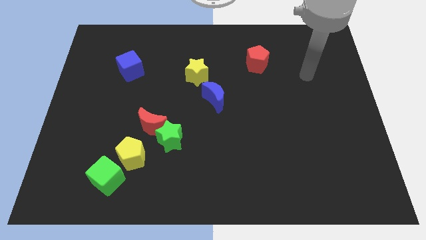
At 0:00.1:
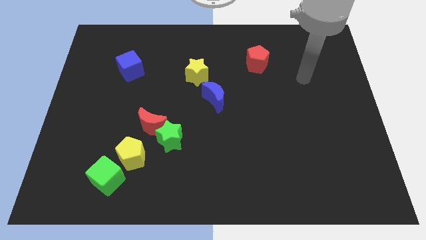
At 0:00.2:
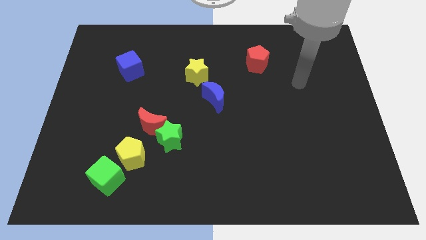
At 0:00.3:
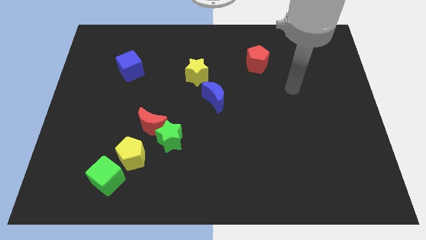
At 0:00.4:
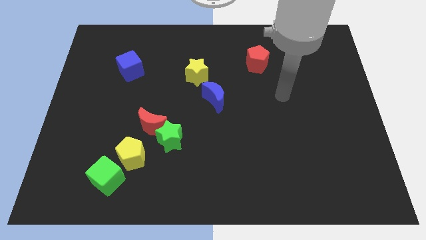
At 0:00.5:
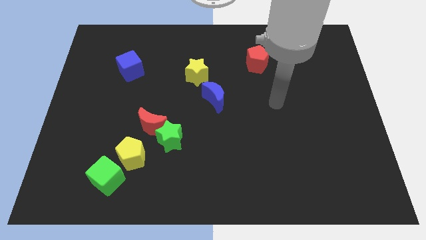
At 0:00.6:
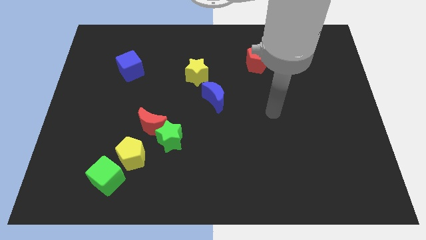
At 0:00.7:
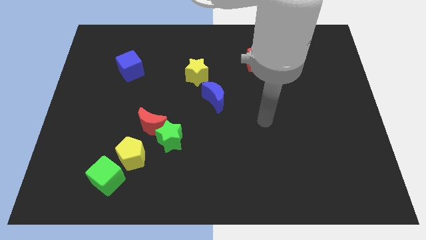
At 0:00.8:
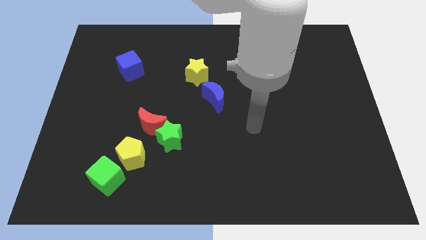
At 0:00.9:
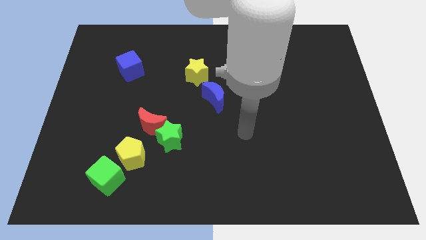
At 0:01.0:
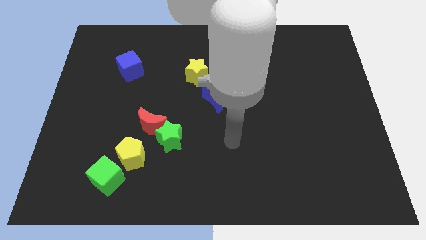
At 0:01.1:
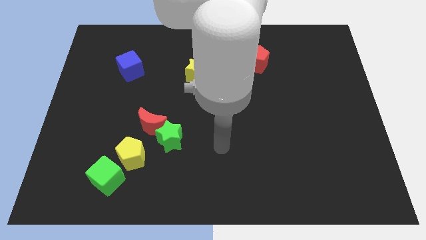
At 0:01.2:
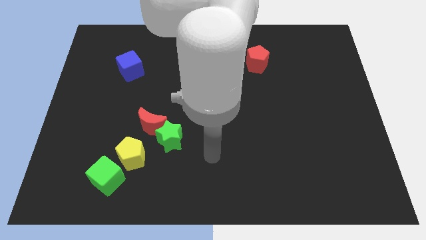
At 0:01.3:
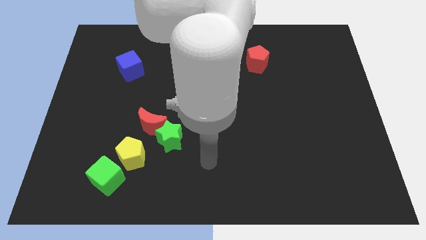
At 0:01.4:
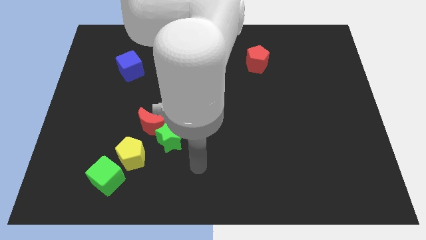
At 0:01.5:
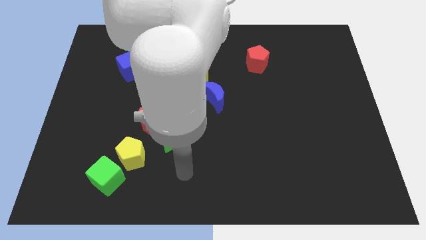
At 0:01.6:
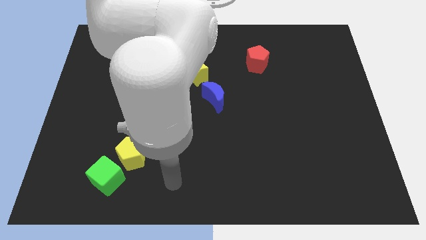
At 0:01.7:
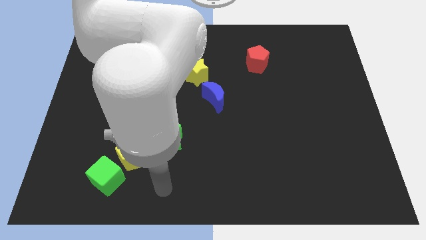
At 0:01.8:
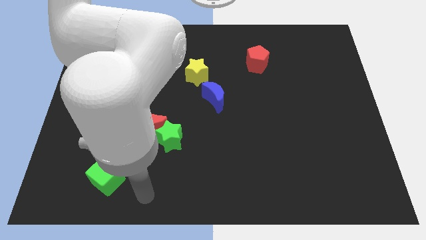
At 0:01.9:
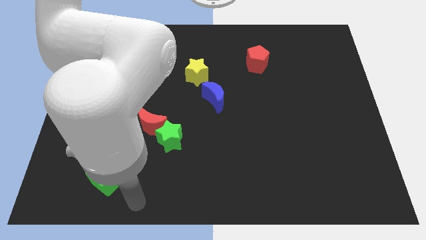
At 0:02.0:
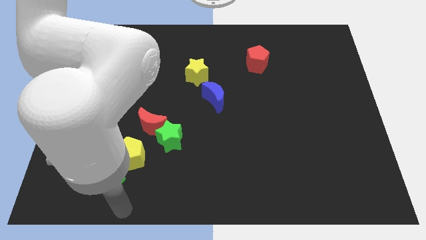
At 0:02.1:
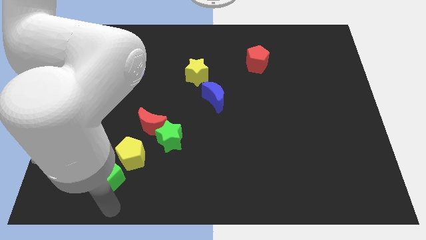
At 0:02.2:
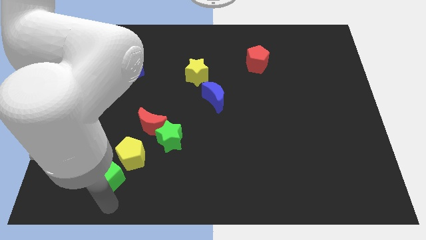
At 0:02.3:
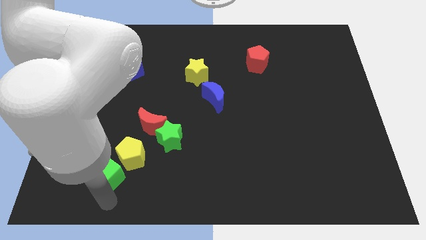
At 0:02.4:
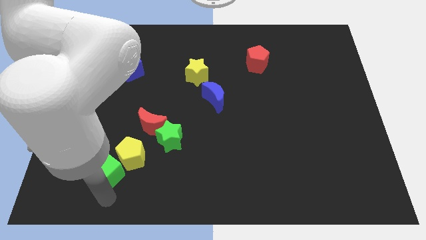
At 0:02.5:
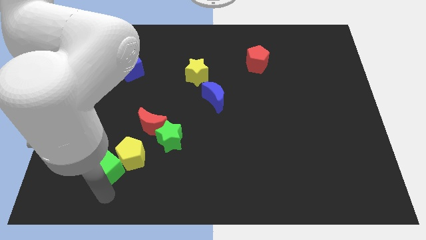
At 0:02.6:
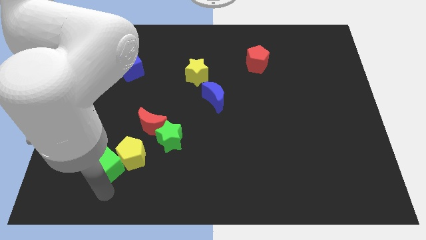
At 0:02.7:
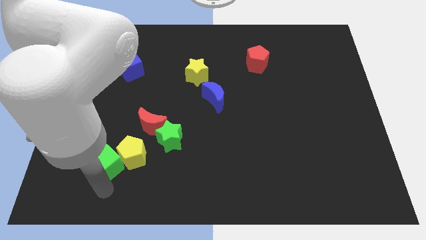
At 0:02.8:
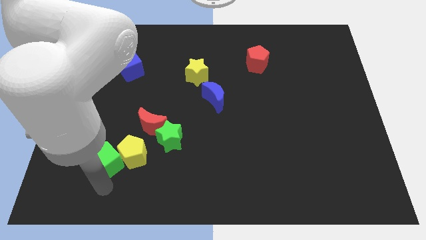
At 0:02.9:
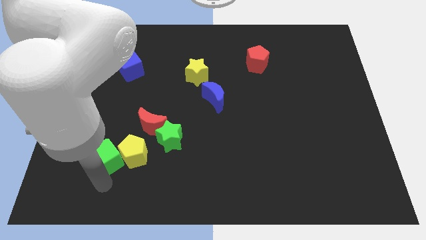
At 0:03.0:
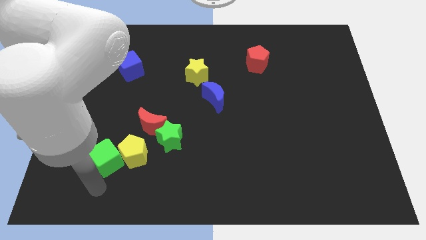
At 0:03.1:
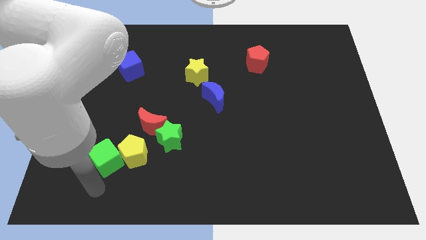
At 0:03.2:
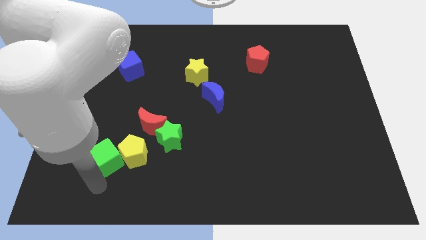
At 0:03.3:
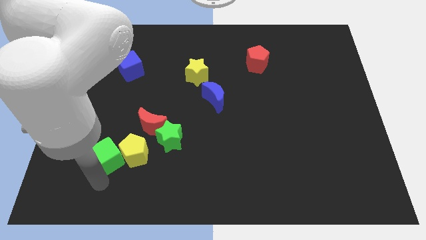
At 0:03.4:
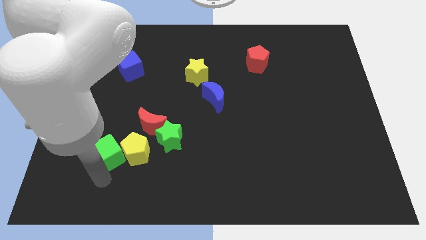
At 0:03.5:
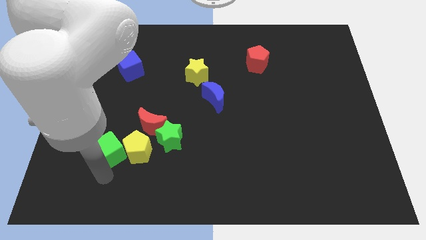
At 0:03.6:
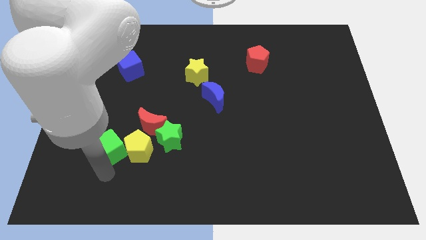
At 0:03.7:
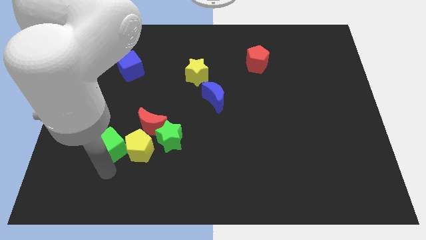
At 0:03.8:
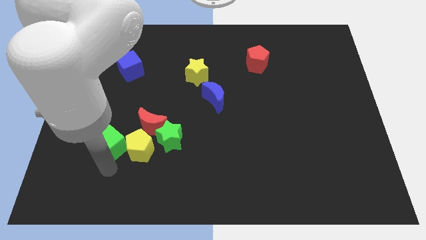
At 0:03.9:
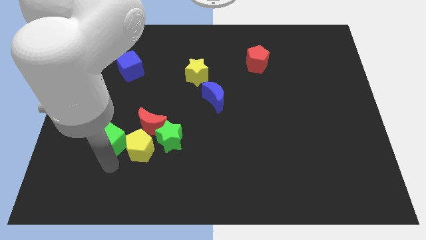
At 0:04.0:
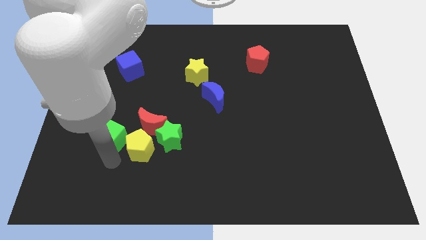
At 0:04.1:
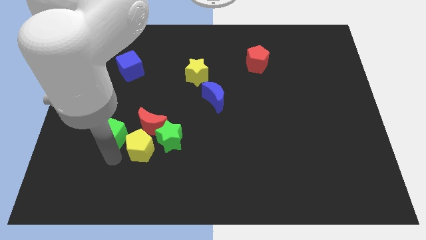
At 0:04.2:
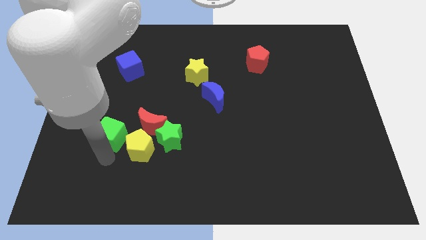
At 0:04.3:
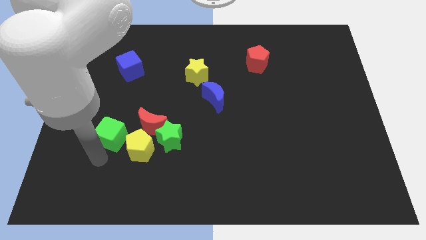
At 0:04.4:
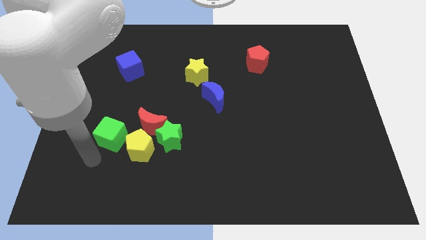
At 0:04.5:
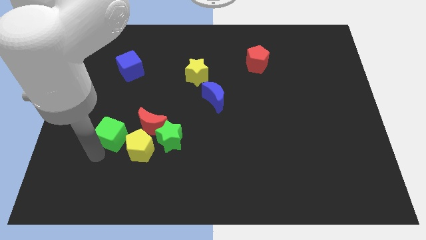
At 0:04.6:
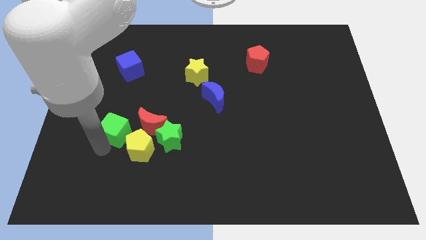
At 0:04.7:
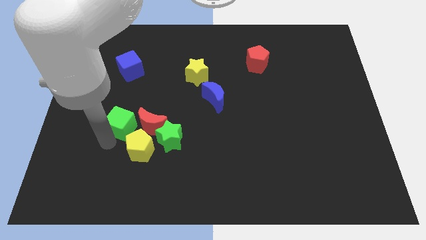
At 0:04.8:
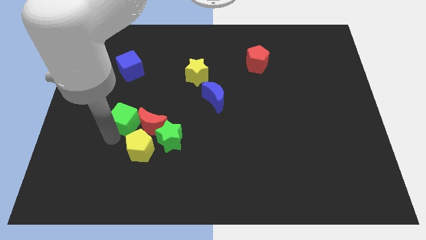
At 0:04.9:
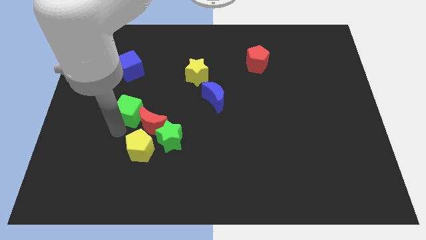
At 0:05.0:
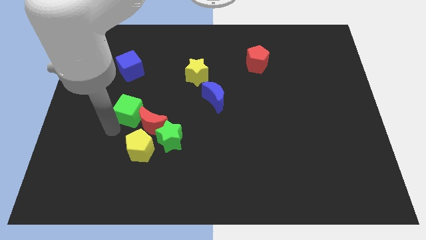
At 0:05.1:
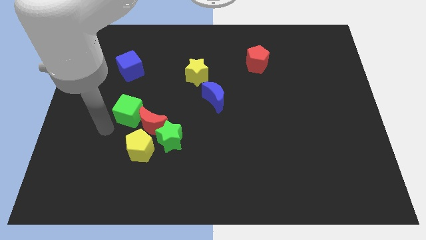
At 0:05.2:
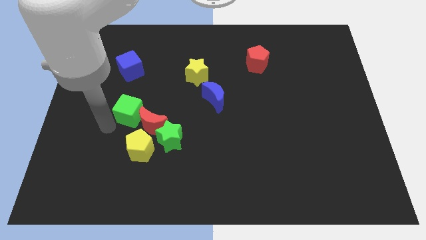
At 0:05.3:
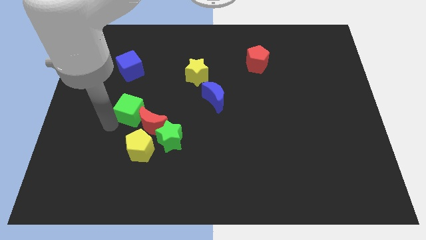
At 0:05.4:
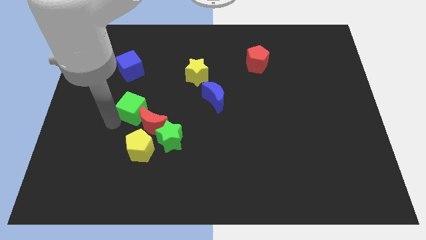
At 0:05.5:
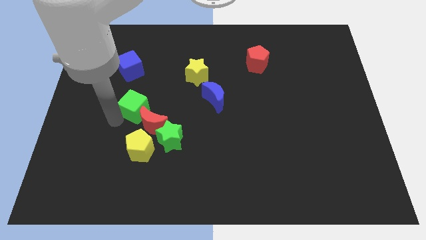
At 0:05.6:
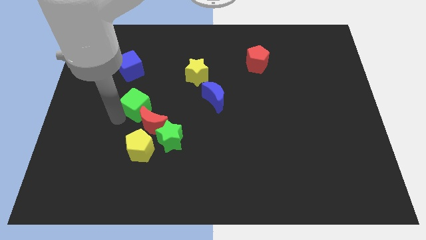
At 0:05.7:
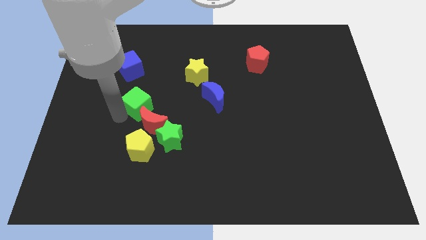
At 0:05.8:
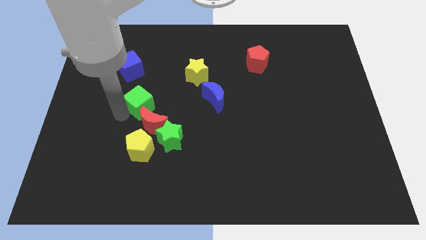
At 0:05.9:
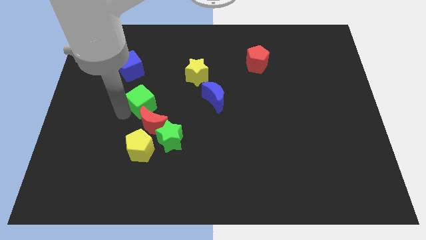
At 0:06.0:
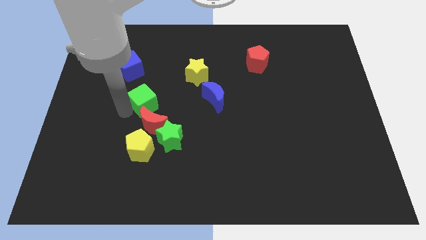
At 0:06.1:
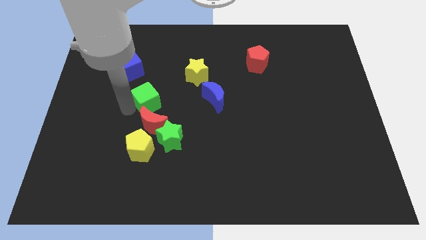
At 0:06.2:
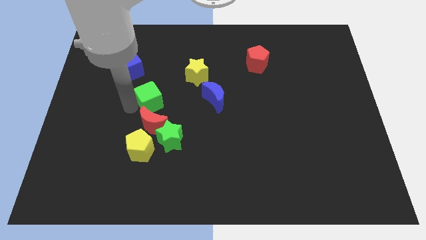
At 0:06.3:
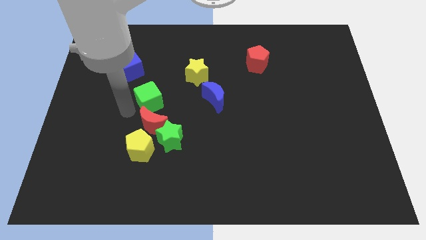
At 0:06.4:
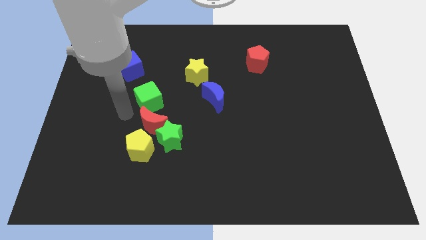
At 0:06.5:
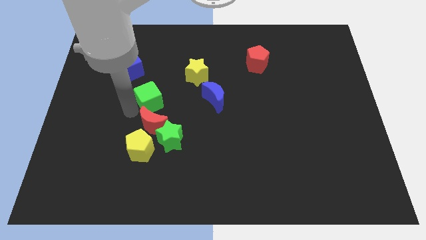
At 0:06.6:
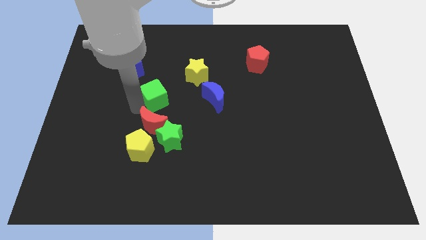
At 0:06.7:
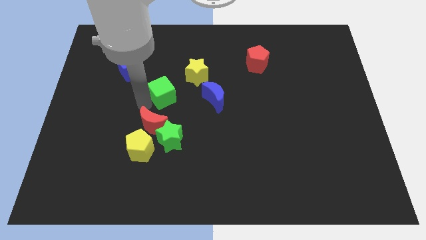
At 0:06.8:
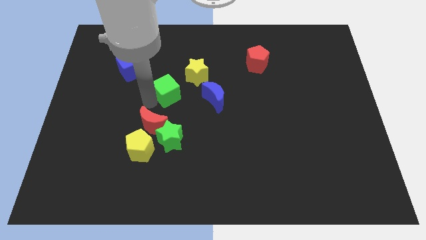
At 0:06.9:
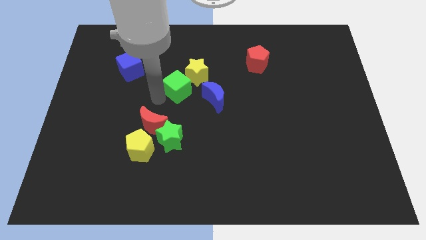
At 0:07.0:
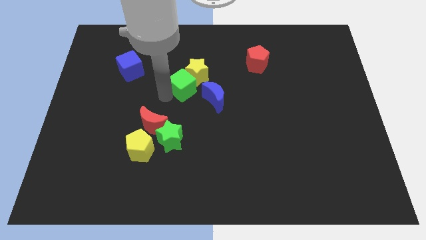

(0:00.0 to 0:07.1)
move the green cube to the yellow star

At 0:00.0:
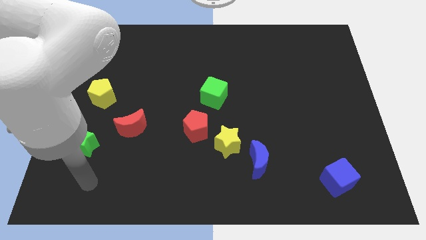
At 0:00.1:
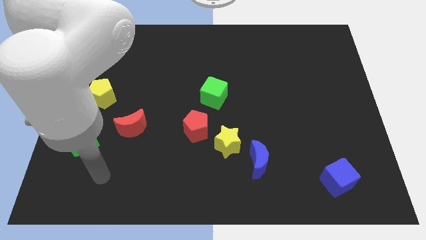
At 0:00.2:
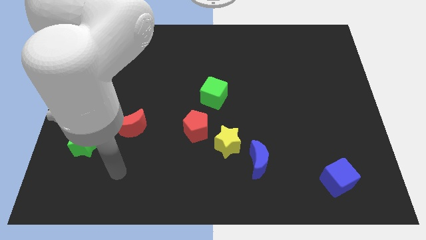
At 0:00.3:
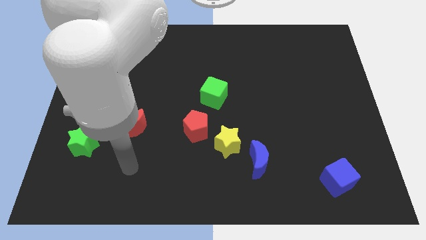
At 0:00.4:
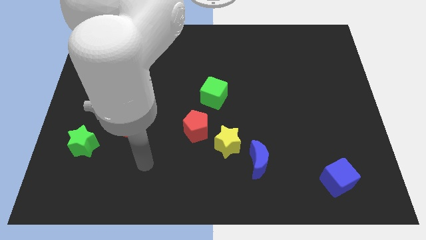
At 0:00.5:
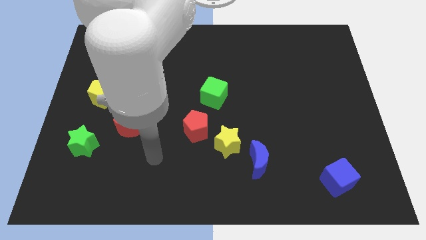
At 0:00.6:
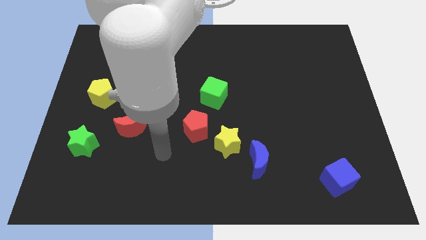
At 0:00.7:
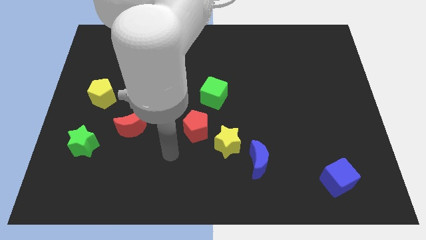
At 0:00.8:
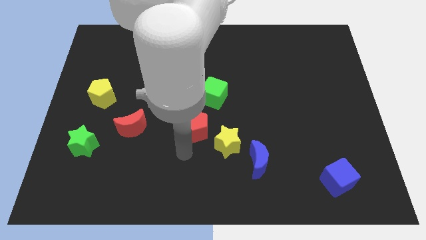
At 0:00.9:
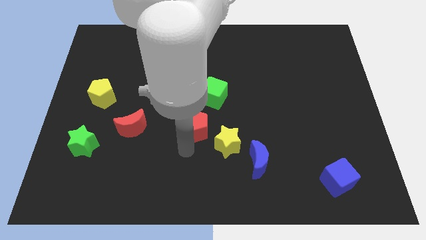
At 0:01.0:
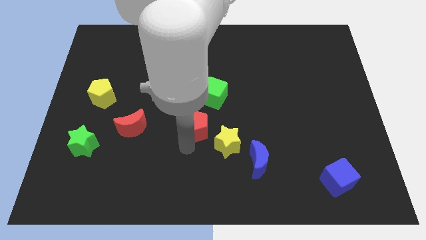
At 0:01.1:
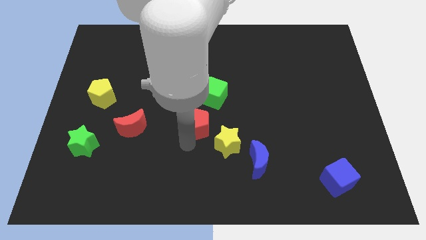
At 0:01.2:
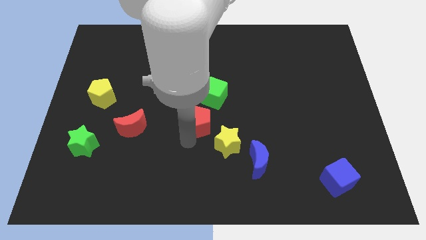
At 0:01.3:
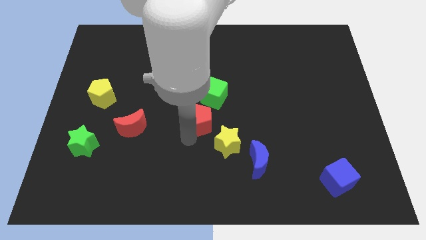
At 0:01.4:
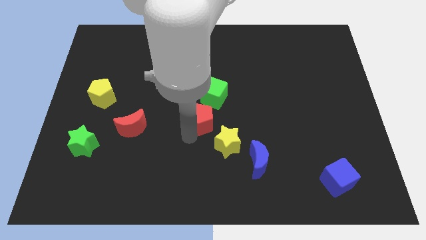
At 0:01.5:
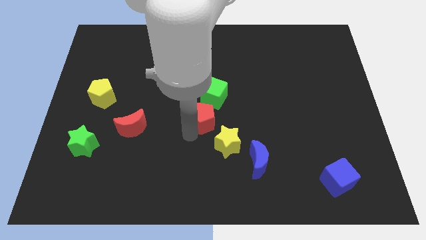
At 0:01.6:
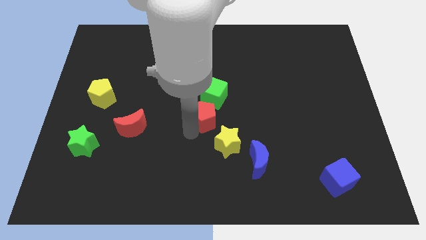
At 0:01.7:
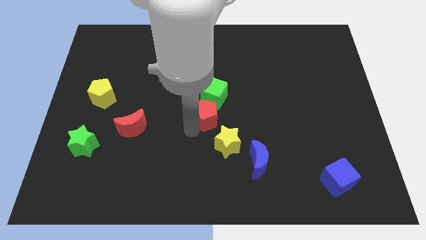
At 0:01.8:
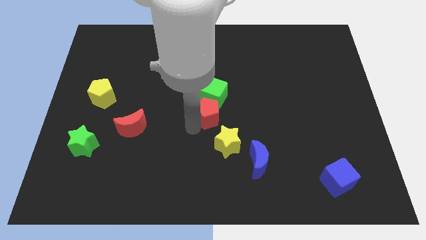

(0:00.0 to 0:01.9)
put the red pentagon towards the green cube
